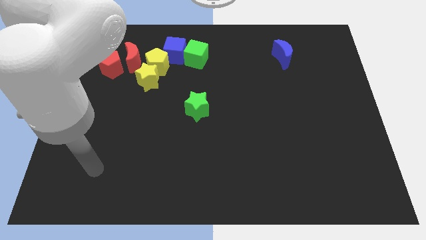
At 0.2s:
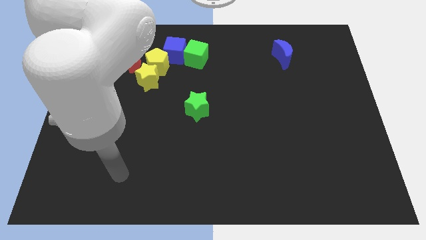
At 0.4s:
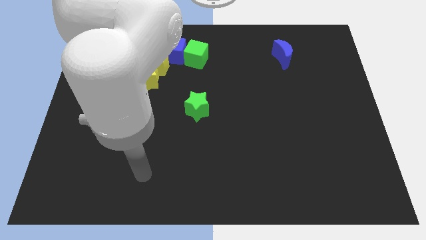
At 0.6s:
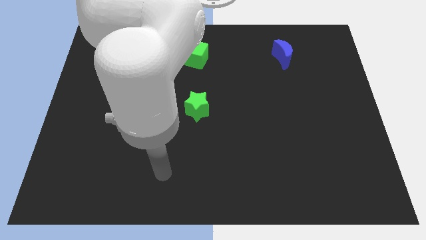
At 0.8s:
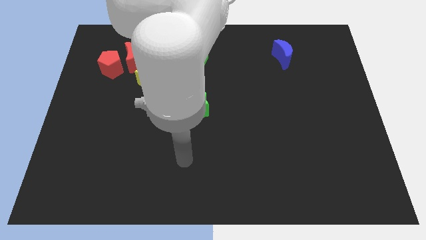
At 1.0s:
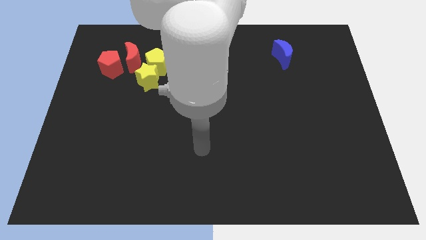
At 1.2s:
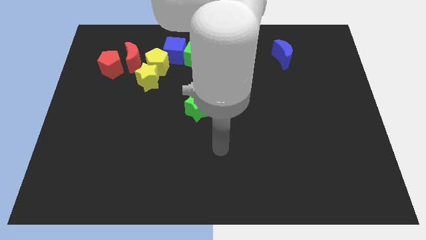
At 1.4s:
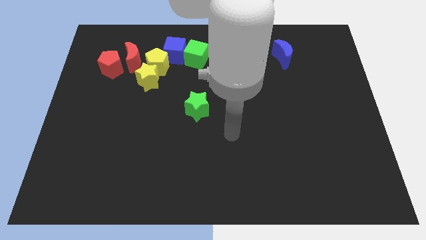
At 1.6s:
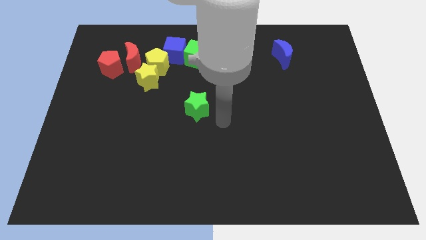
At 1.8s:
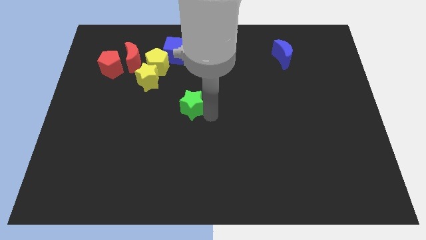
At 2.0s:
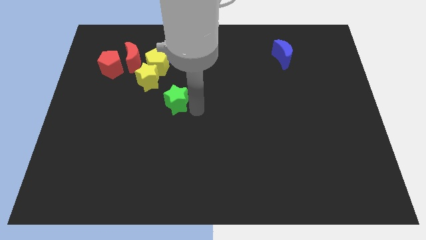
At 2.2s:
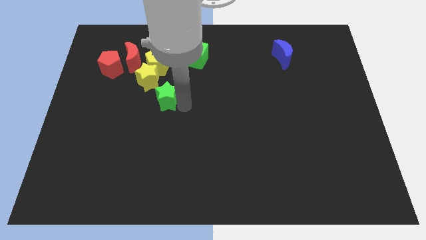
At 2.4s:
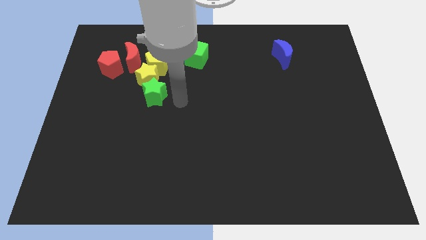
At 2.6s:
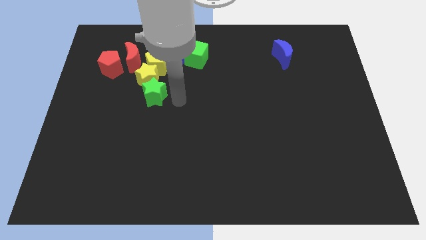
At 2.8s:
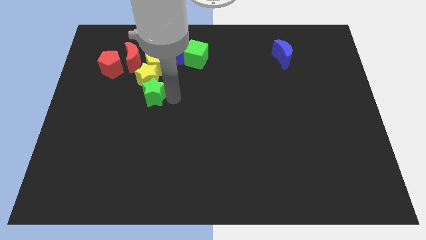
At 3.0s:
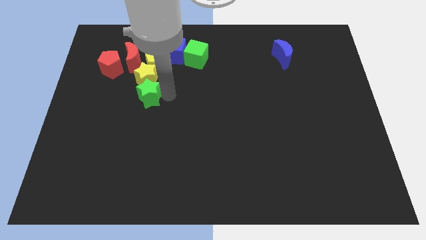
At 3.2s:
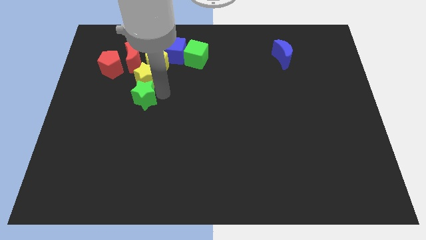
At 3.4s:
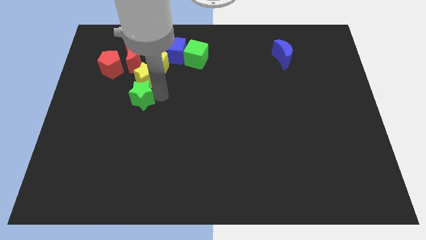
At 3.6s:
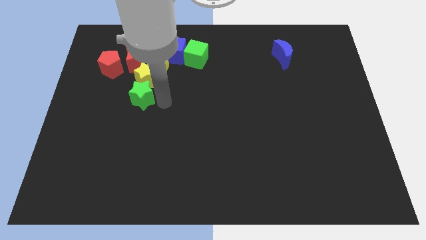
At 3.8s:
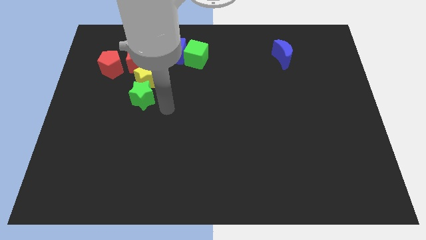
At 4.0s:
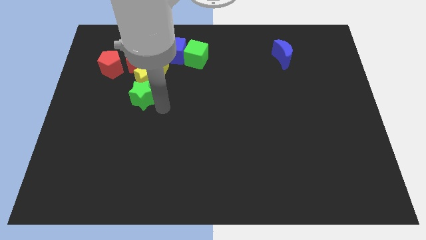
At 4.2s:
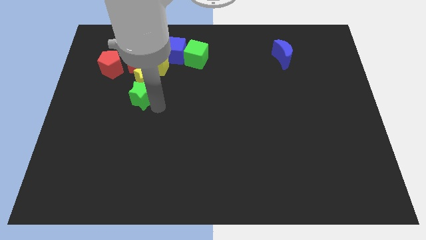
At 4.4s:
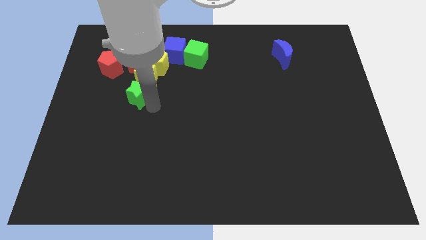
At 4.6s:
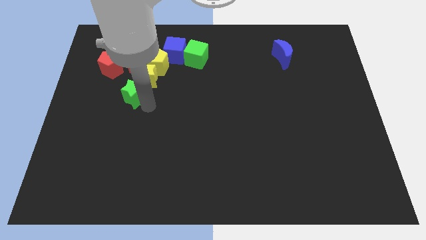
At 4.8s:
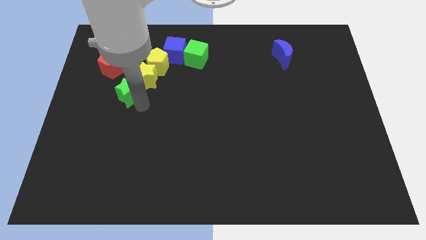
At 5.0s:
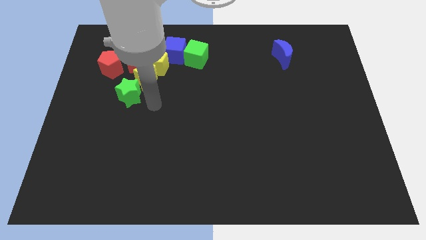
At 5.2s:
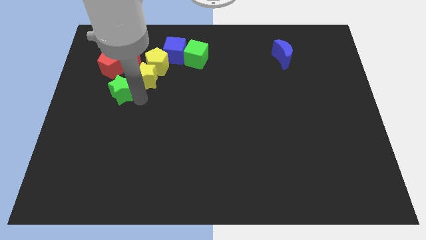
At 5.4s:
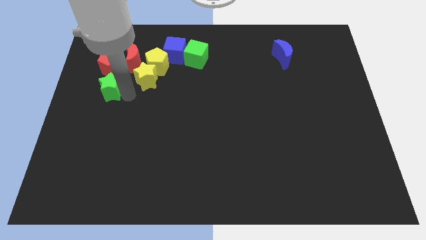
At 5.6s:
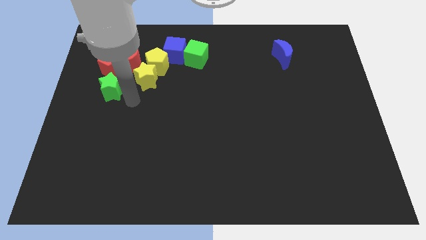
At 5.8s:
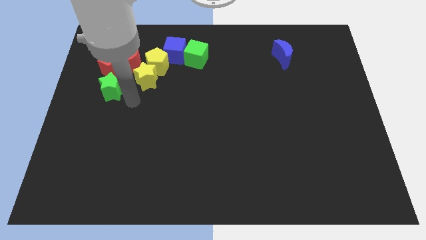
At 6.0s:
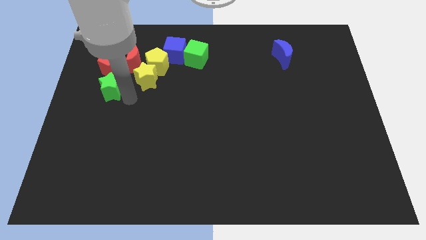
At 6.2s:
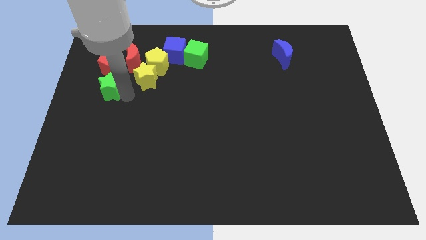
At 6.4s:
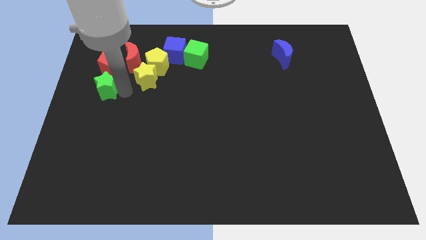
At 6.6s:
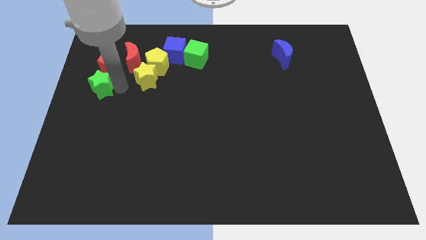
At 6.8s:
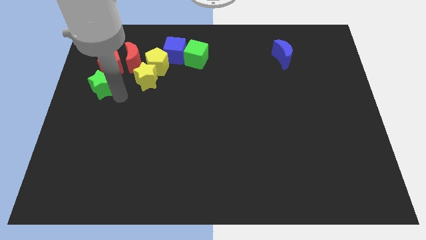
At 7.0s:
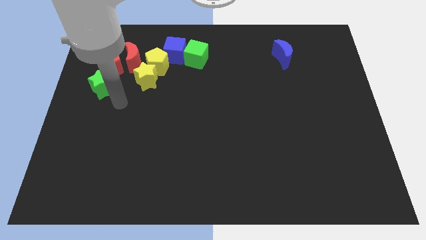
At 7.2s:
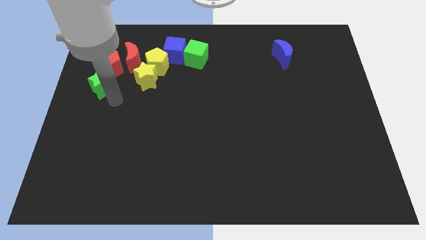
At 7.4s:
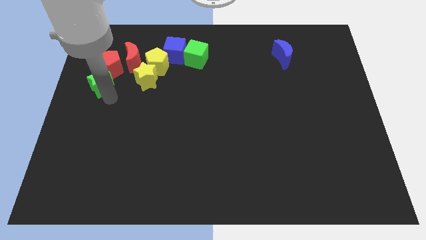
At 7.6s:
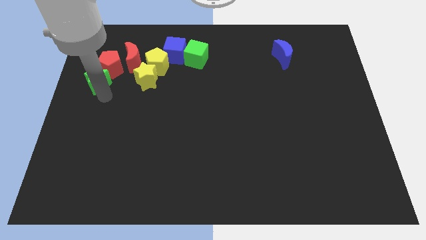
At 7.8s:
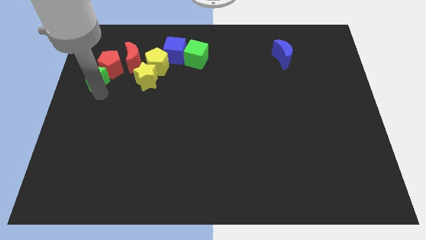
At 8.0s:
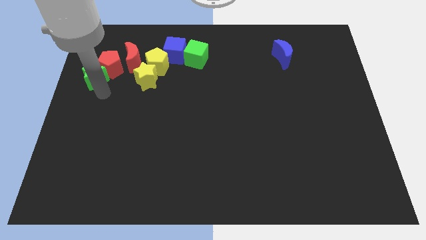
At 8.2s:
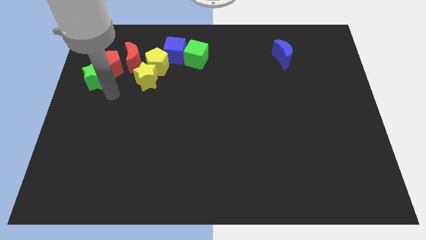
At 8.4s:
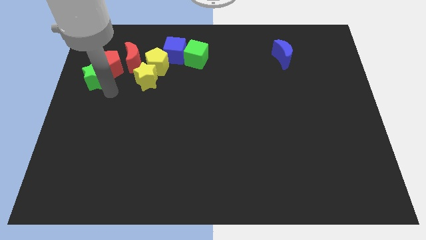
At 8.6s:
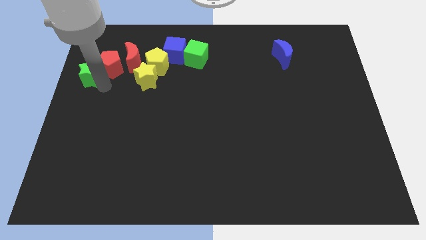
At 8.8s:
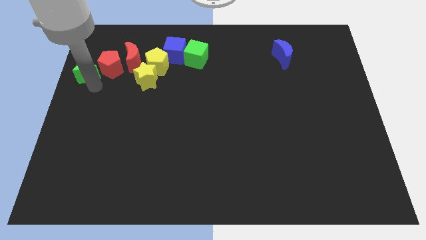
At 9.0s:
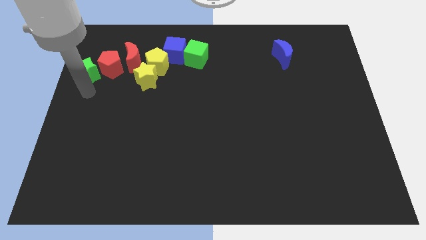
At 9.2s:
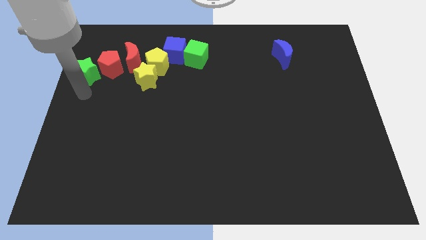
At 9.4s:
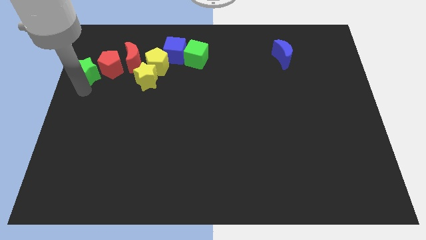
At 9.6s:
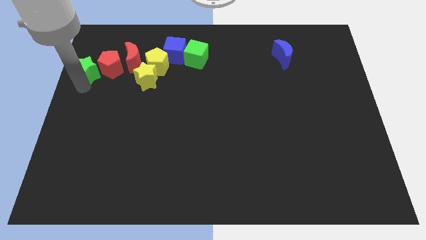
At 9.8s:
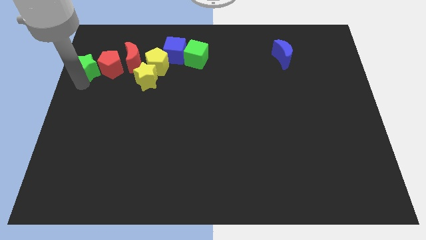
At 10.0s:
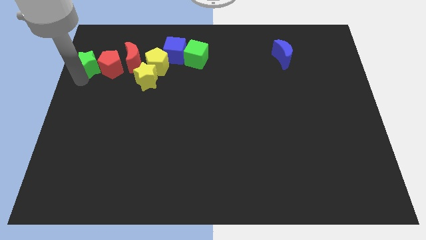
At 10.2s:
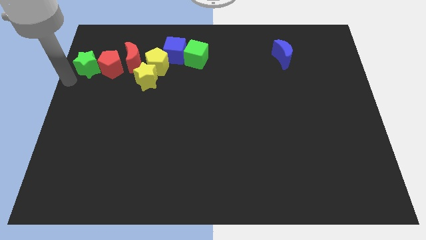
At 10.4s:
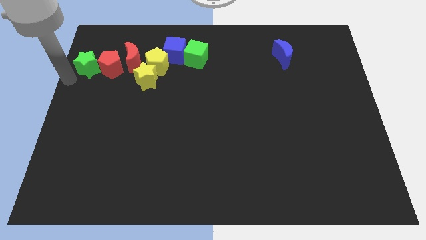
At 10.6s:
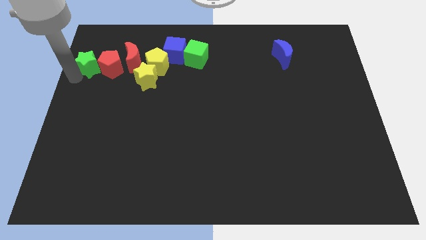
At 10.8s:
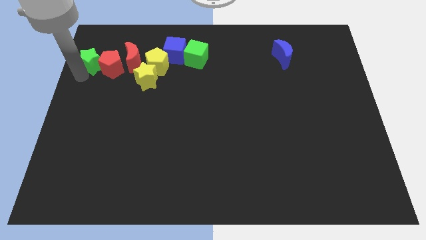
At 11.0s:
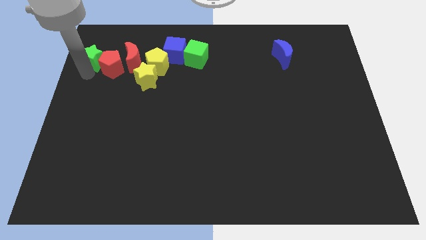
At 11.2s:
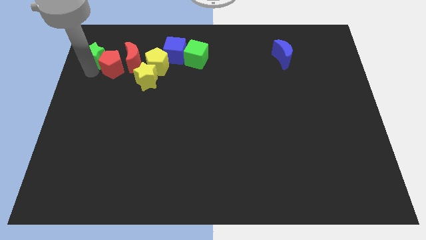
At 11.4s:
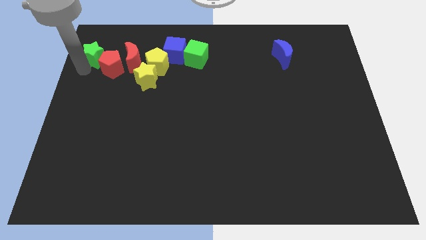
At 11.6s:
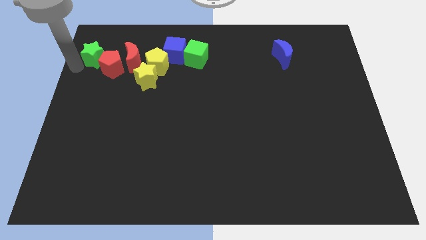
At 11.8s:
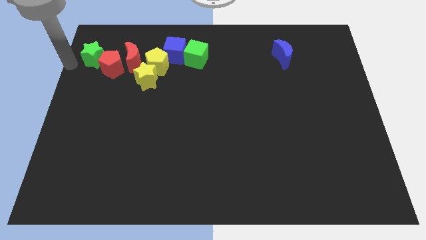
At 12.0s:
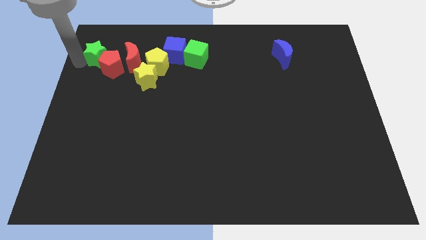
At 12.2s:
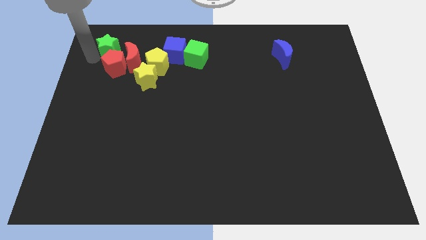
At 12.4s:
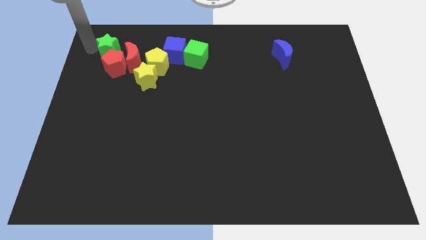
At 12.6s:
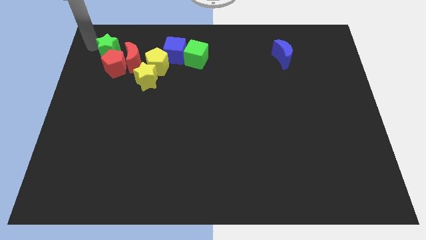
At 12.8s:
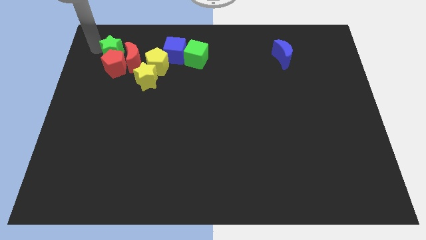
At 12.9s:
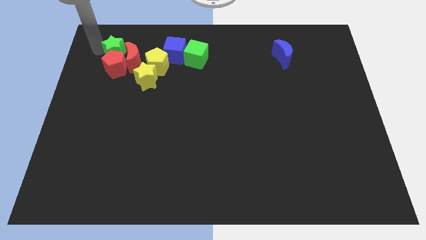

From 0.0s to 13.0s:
push the green star to the red moon
